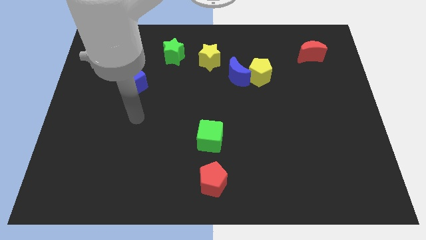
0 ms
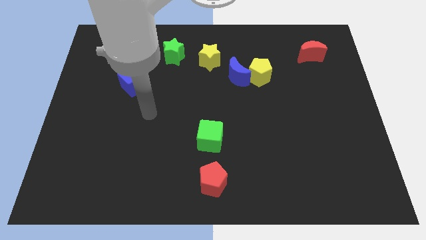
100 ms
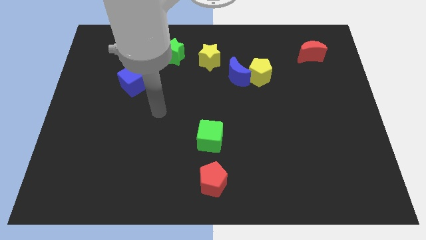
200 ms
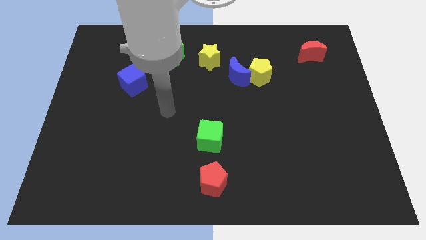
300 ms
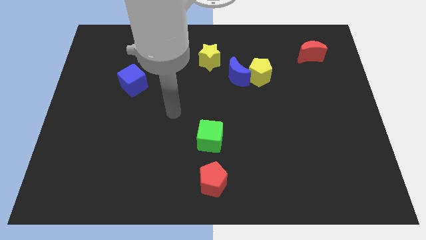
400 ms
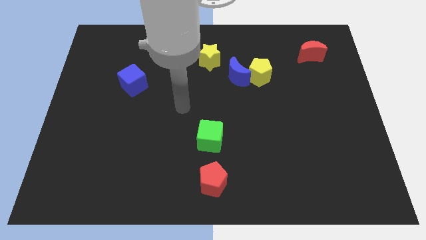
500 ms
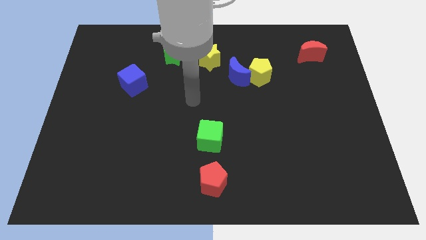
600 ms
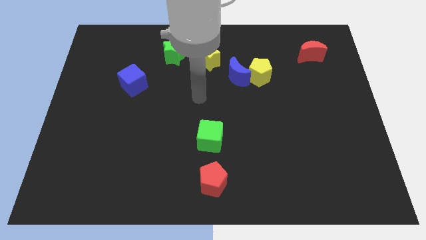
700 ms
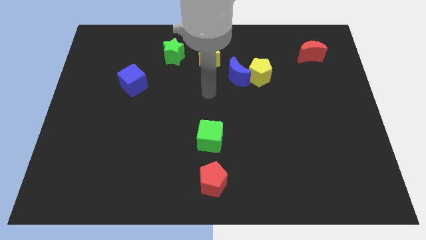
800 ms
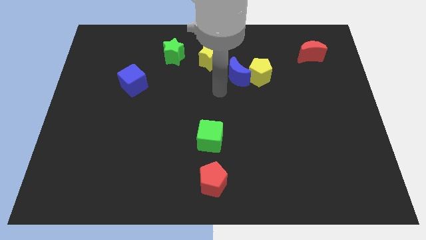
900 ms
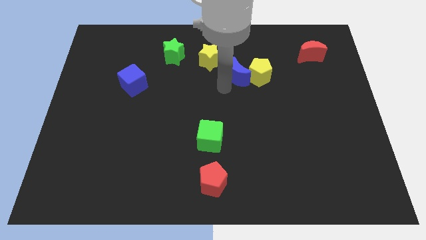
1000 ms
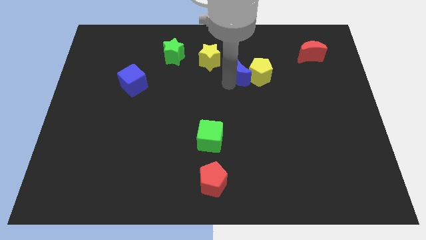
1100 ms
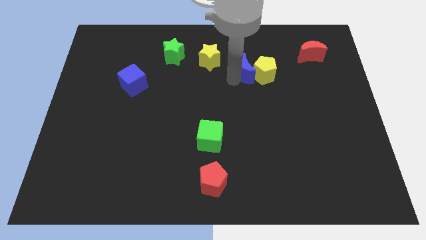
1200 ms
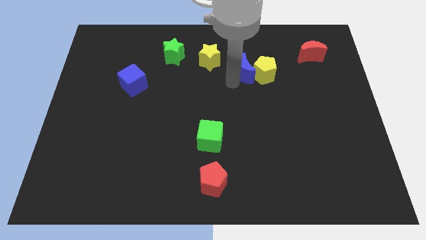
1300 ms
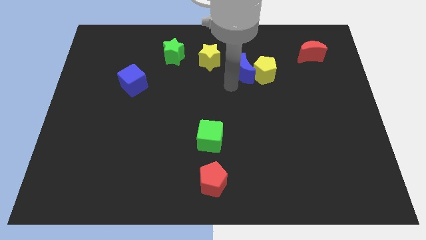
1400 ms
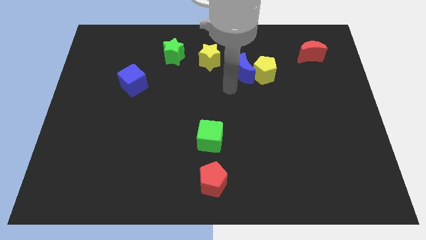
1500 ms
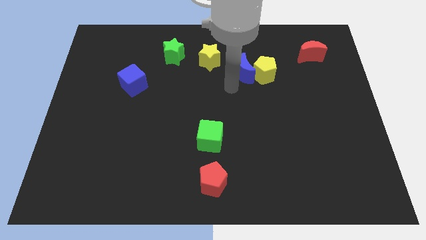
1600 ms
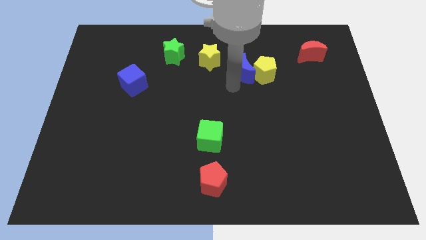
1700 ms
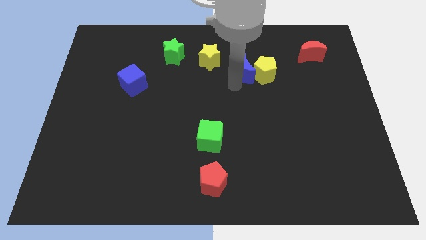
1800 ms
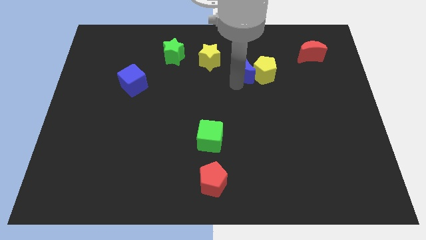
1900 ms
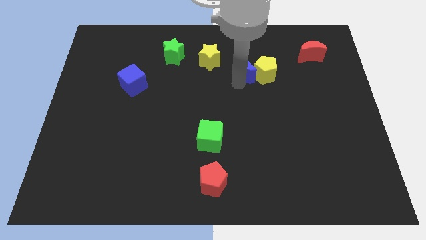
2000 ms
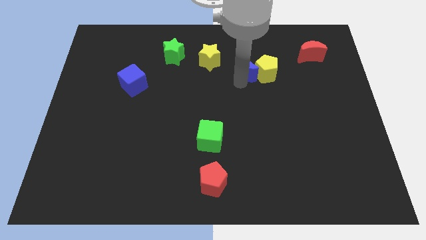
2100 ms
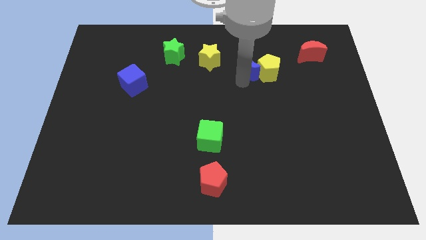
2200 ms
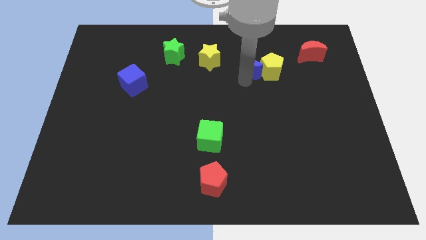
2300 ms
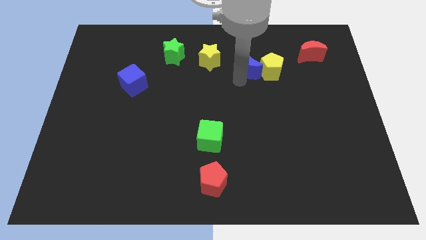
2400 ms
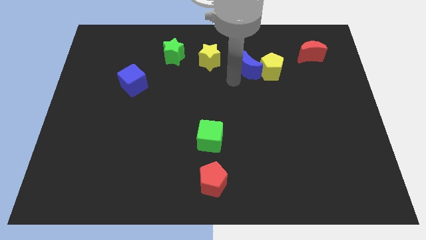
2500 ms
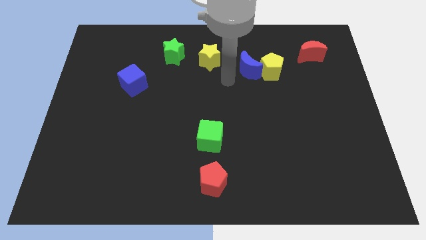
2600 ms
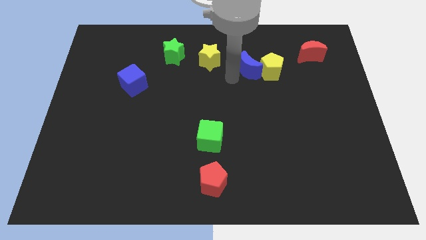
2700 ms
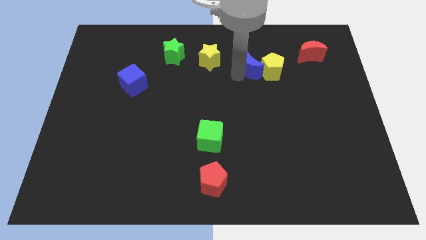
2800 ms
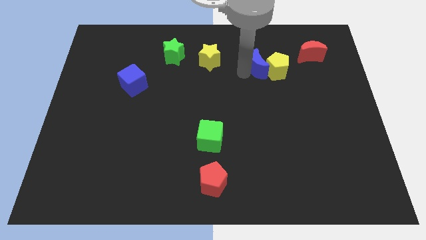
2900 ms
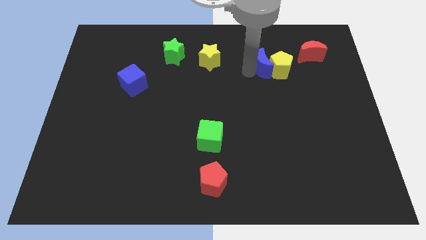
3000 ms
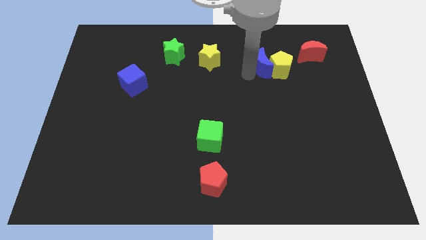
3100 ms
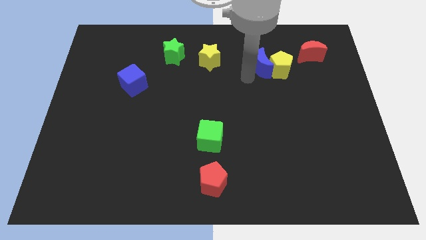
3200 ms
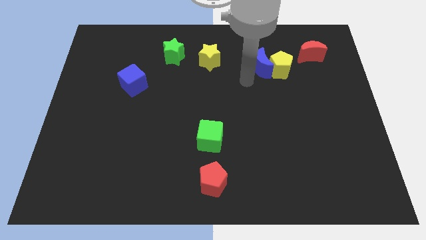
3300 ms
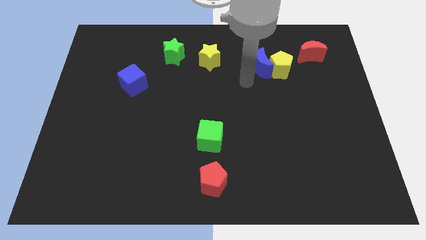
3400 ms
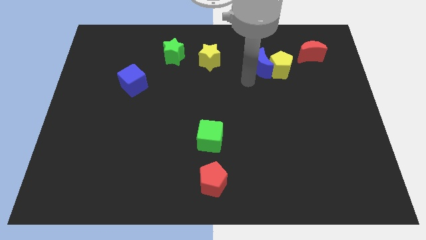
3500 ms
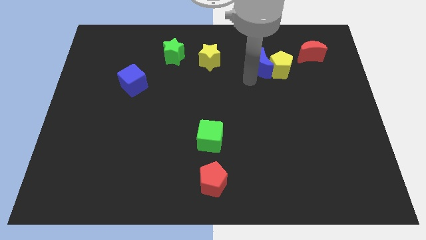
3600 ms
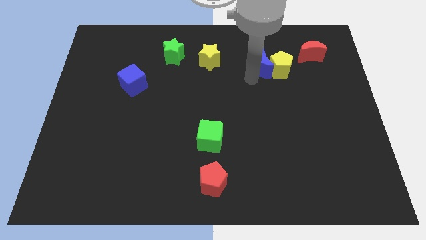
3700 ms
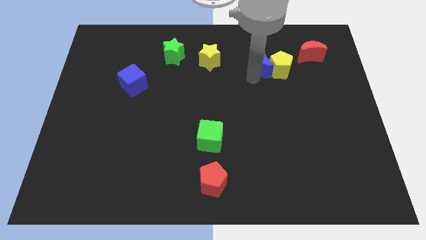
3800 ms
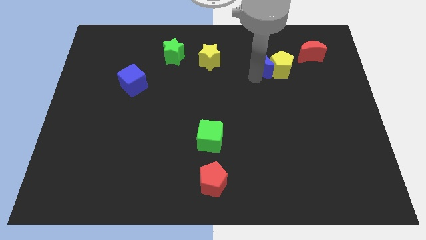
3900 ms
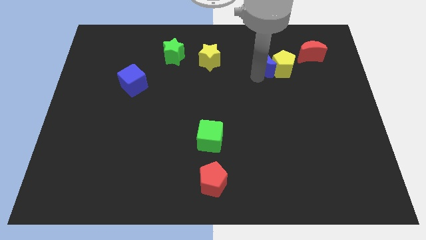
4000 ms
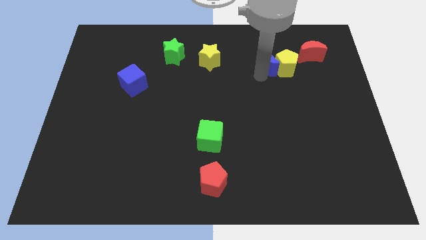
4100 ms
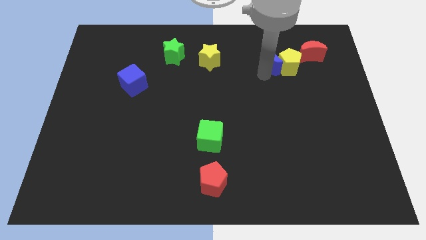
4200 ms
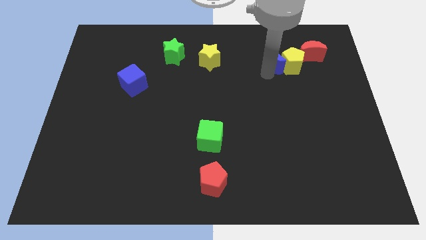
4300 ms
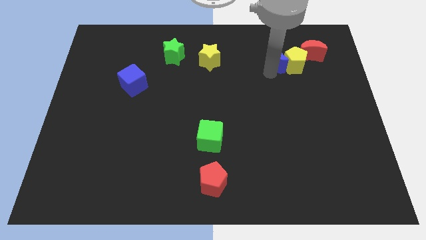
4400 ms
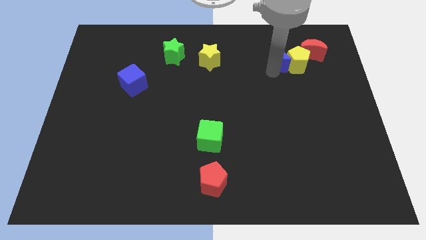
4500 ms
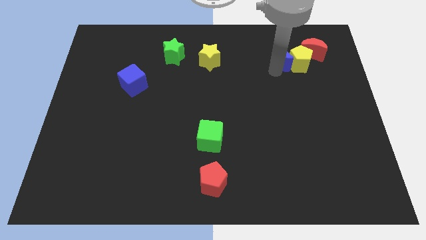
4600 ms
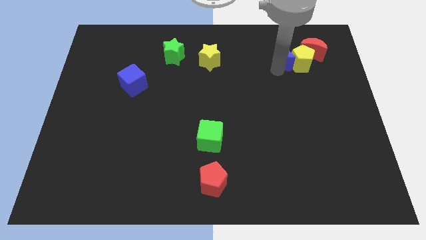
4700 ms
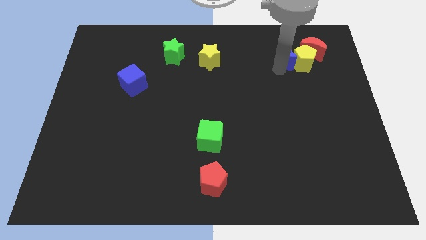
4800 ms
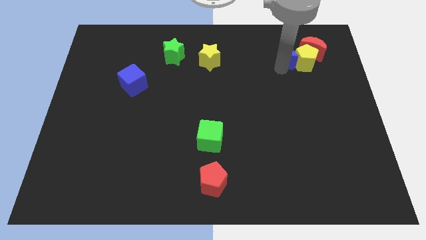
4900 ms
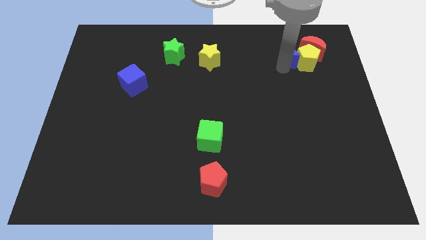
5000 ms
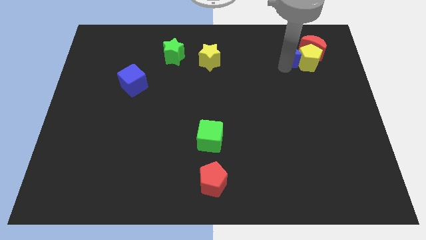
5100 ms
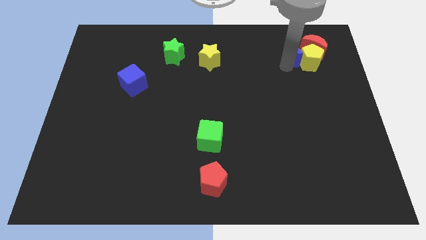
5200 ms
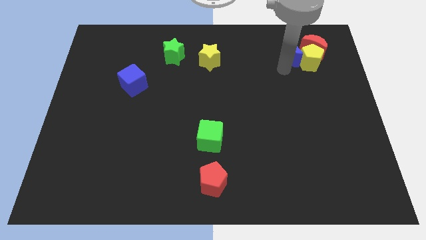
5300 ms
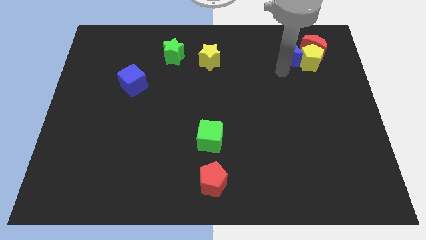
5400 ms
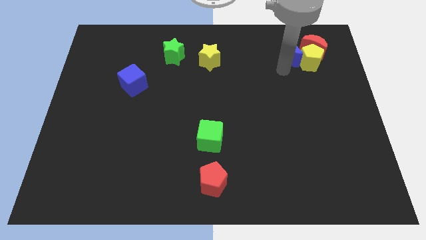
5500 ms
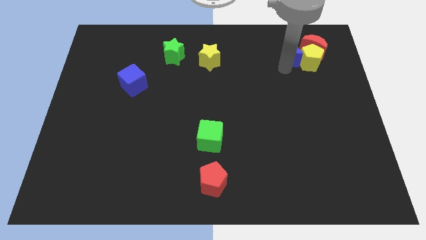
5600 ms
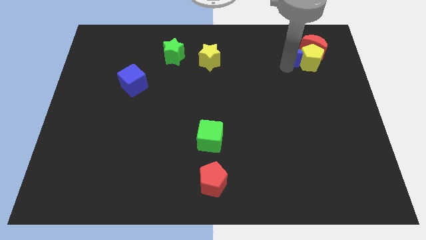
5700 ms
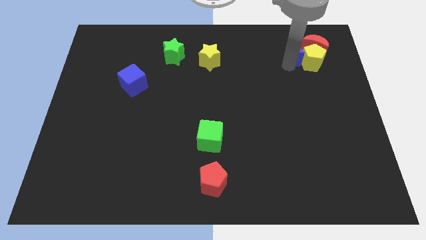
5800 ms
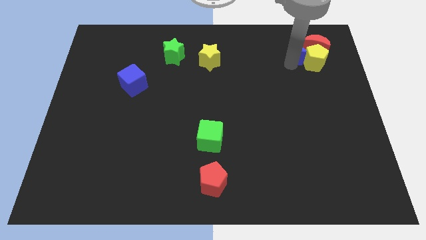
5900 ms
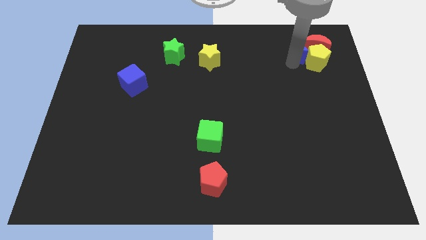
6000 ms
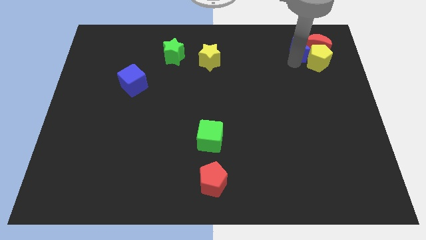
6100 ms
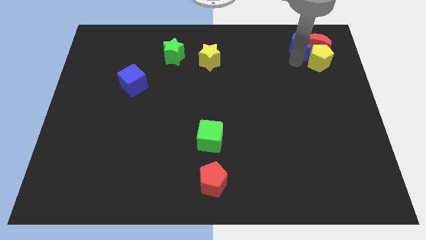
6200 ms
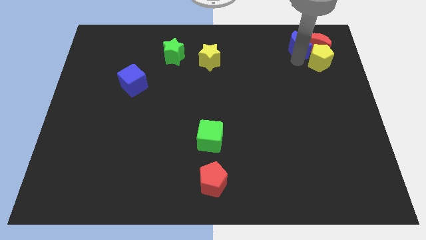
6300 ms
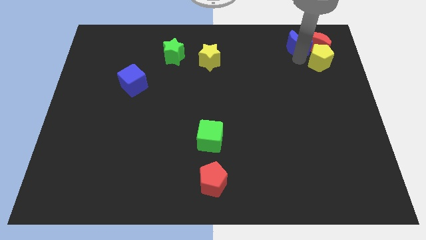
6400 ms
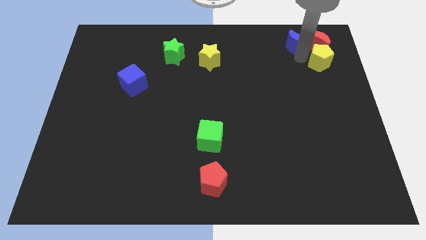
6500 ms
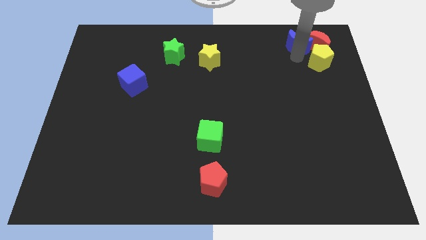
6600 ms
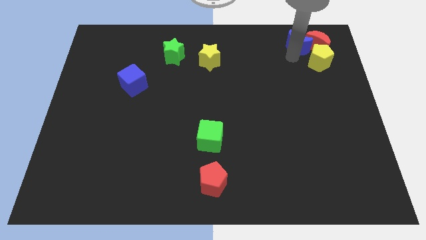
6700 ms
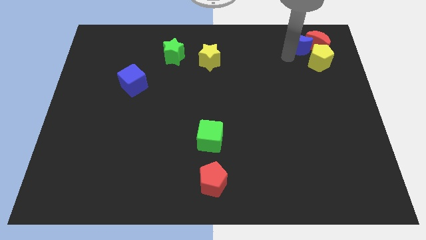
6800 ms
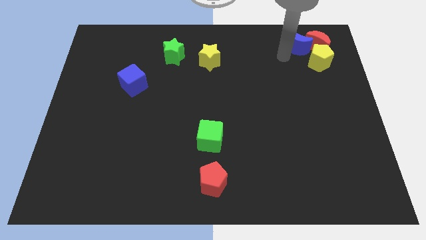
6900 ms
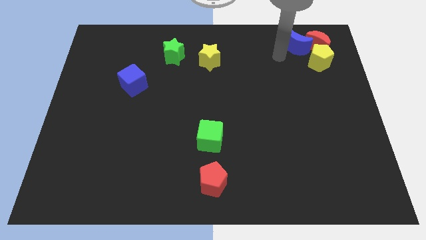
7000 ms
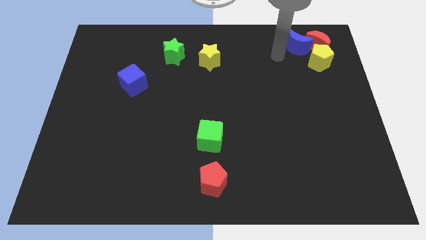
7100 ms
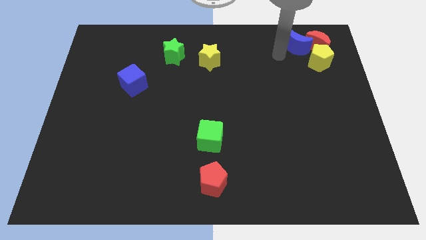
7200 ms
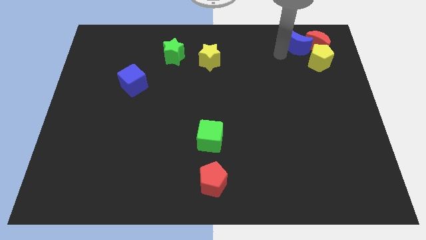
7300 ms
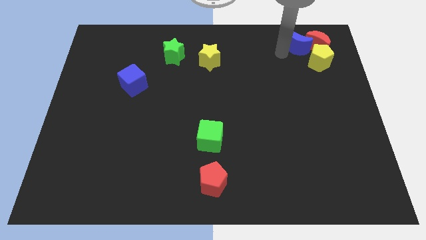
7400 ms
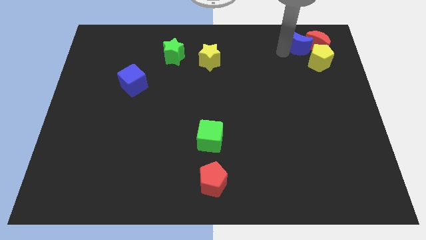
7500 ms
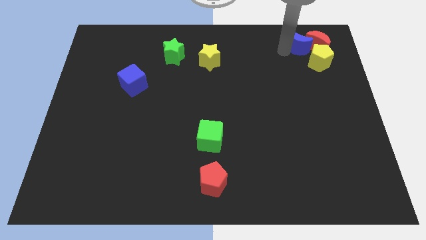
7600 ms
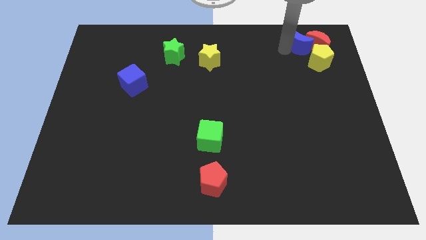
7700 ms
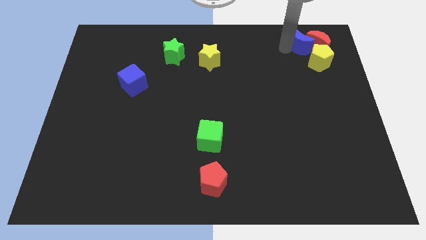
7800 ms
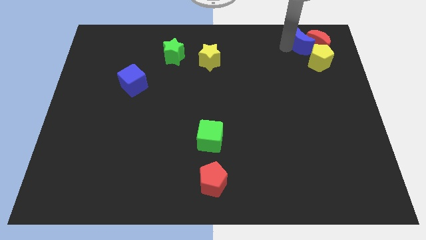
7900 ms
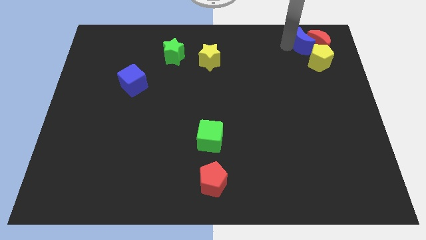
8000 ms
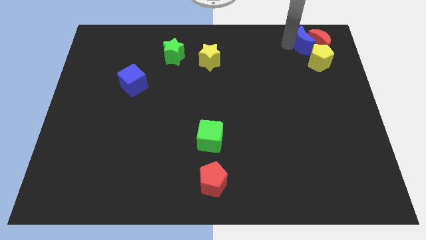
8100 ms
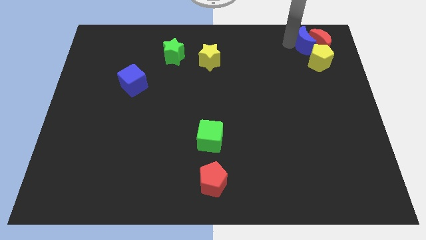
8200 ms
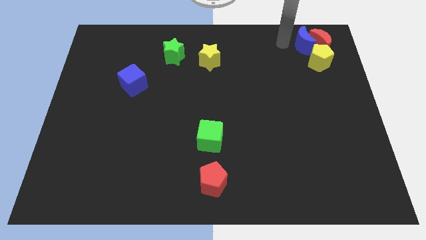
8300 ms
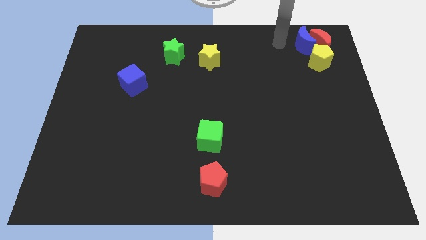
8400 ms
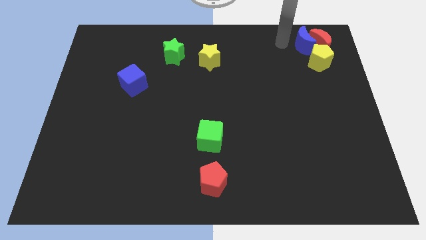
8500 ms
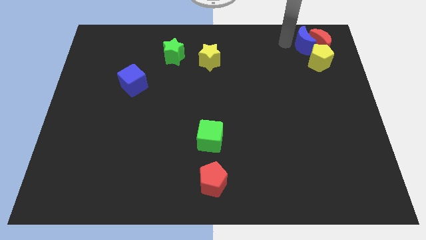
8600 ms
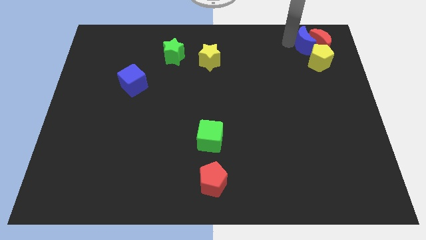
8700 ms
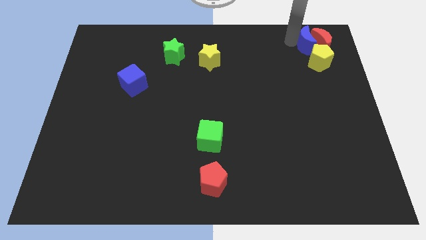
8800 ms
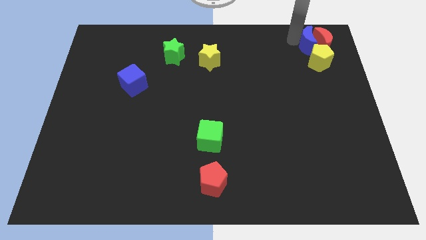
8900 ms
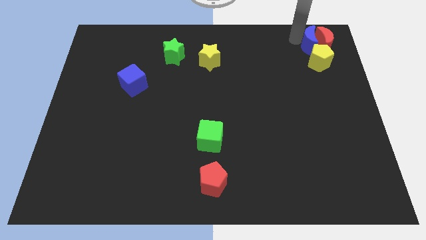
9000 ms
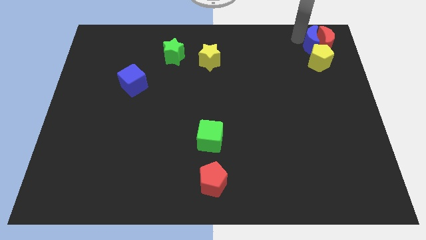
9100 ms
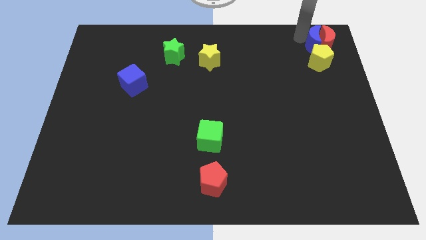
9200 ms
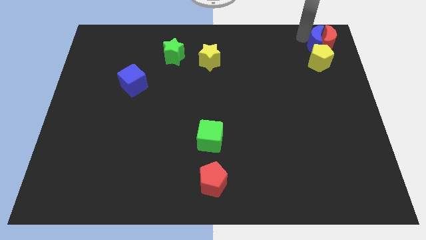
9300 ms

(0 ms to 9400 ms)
move the blue moon to the upper right corner
